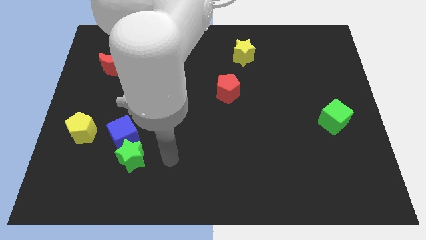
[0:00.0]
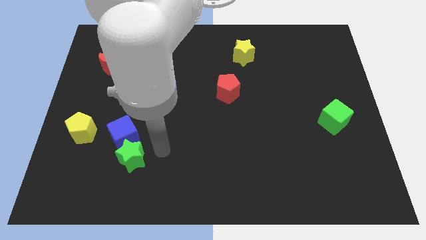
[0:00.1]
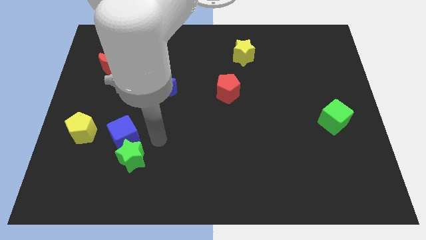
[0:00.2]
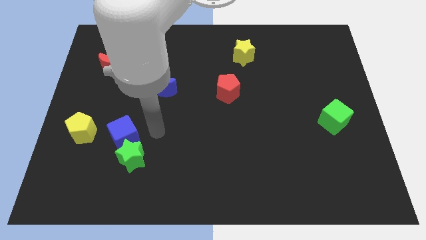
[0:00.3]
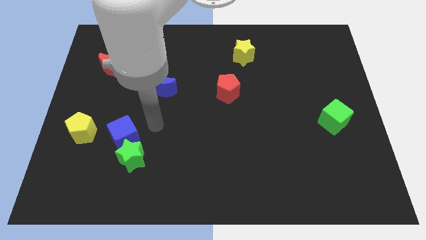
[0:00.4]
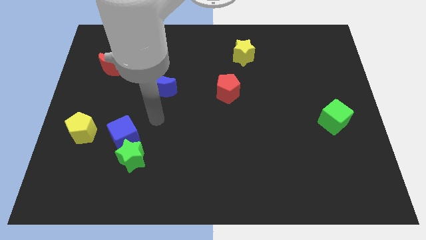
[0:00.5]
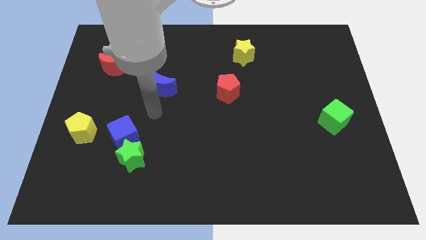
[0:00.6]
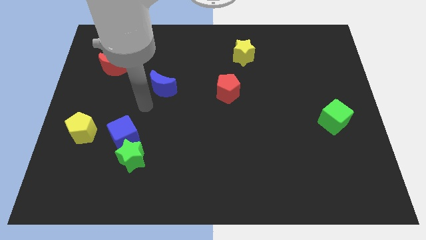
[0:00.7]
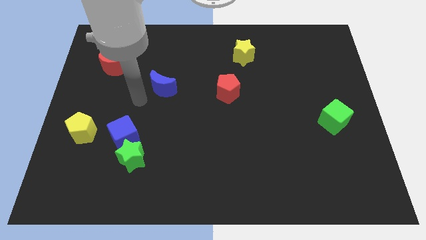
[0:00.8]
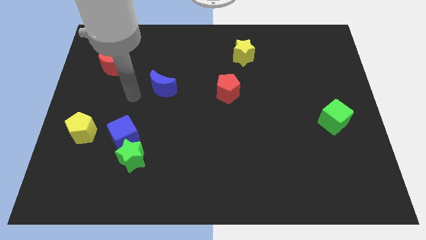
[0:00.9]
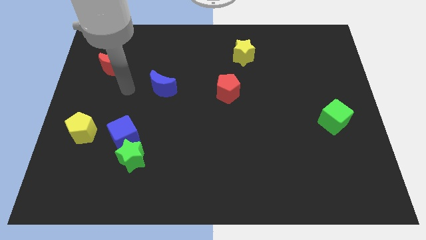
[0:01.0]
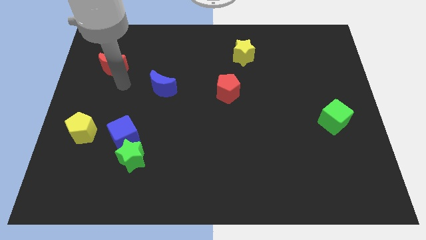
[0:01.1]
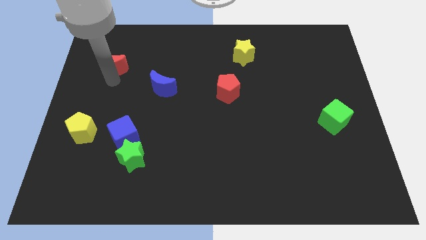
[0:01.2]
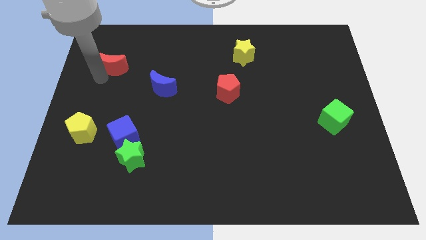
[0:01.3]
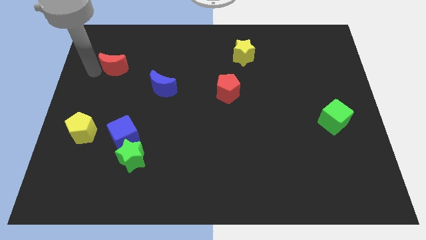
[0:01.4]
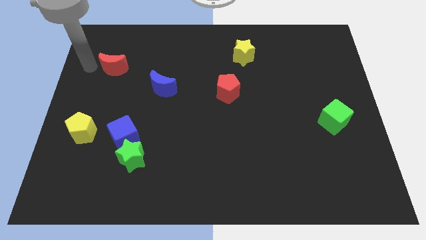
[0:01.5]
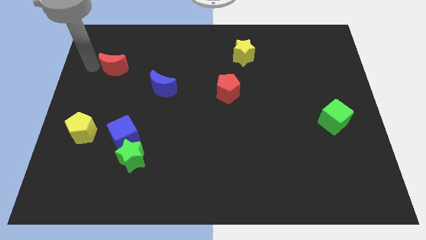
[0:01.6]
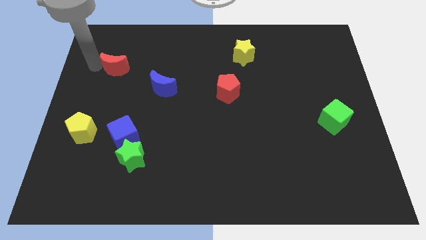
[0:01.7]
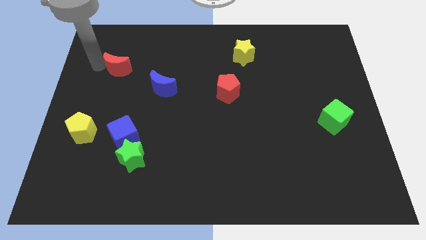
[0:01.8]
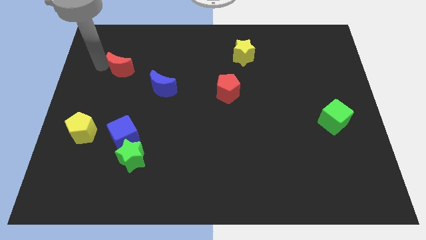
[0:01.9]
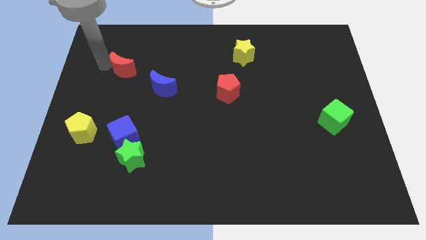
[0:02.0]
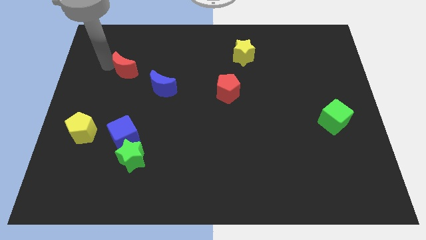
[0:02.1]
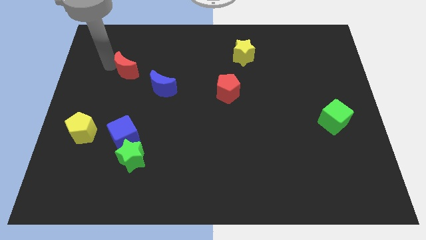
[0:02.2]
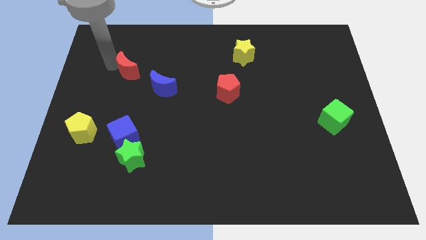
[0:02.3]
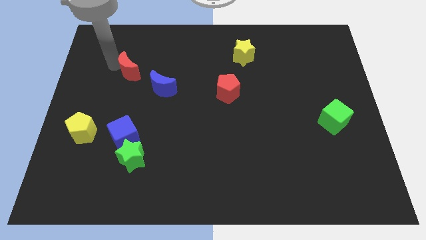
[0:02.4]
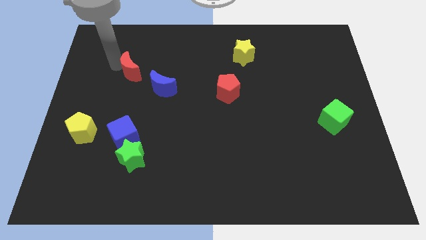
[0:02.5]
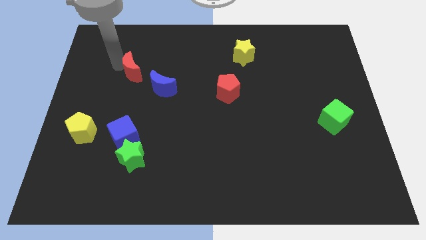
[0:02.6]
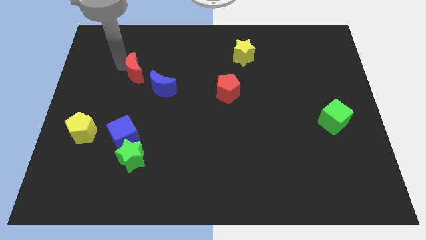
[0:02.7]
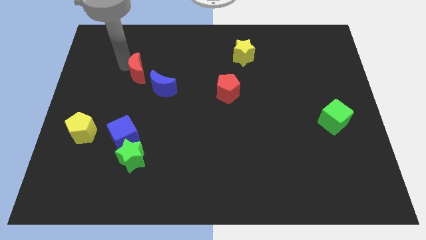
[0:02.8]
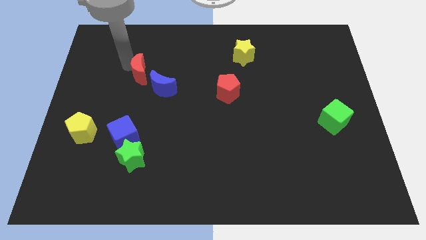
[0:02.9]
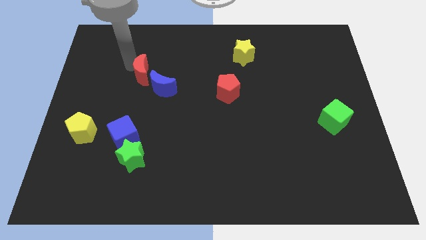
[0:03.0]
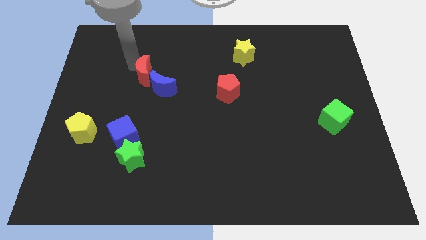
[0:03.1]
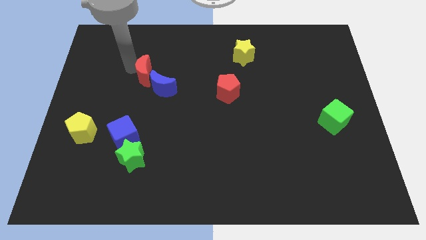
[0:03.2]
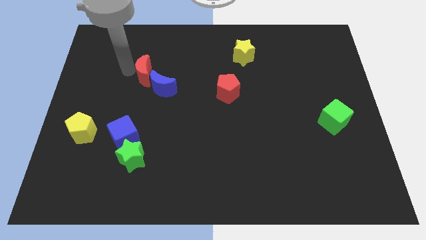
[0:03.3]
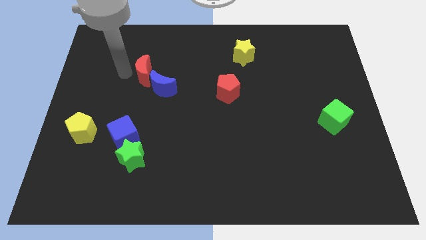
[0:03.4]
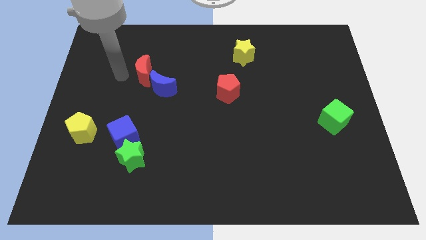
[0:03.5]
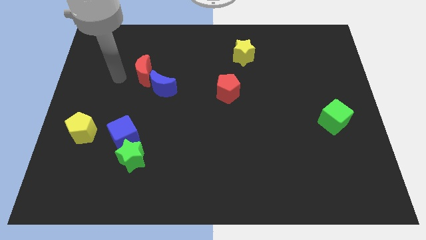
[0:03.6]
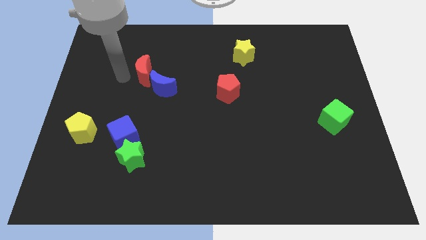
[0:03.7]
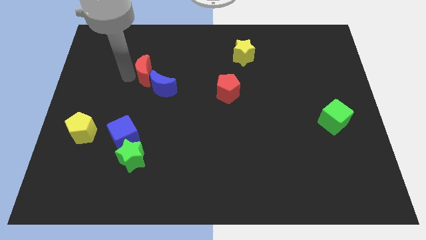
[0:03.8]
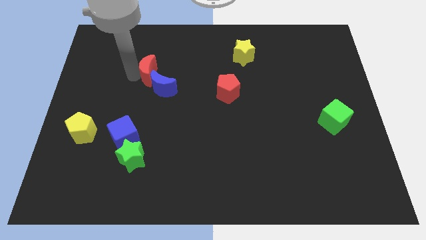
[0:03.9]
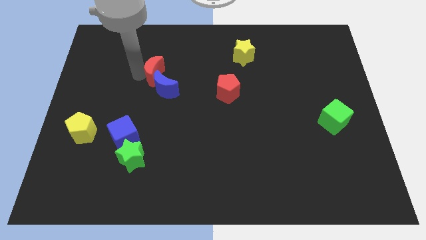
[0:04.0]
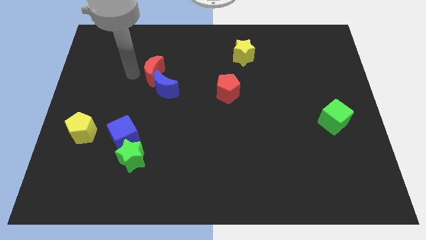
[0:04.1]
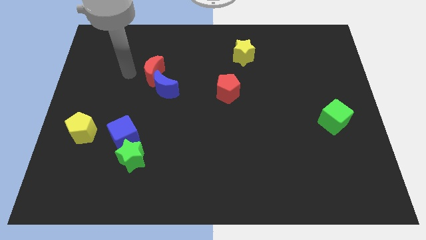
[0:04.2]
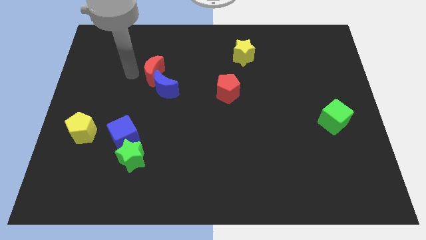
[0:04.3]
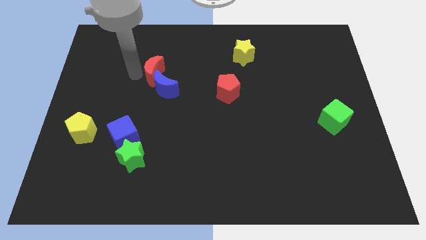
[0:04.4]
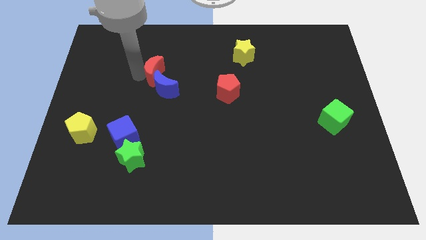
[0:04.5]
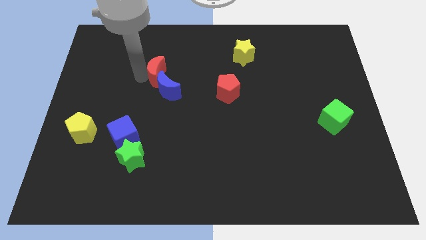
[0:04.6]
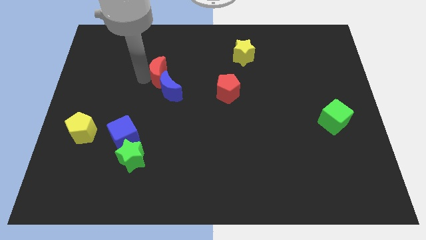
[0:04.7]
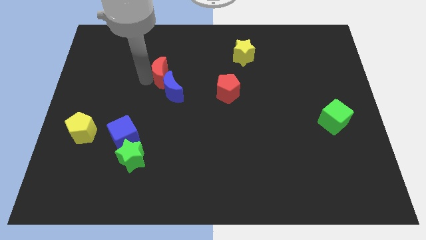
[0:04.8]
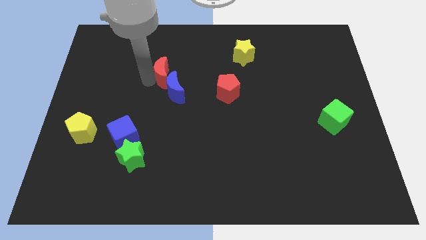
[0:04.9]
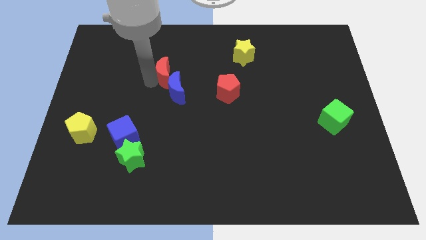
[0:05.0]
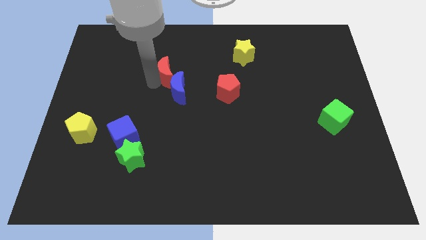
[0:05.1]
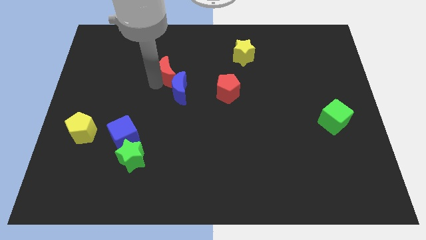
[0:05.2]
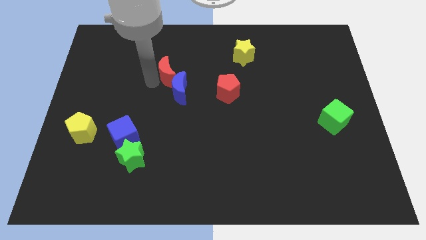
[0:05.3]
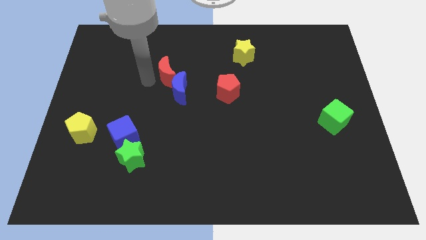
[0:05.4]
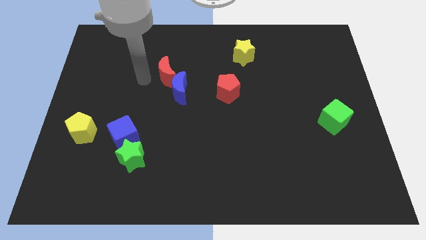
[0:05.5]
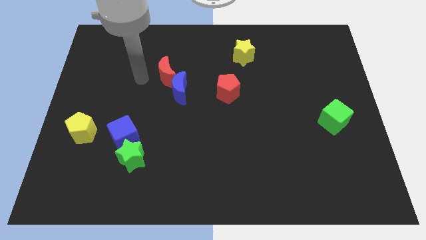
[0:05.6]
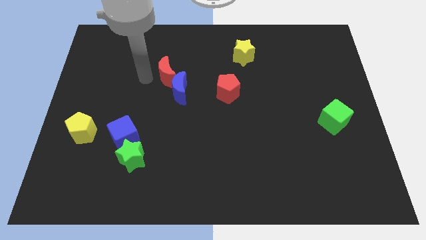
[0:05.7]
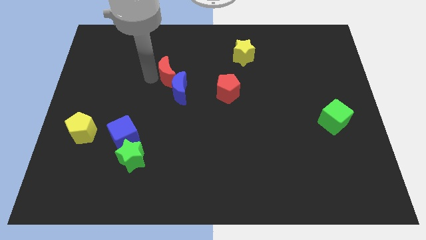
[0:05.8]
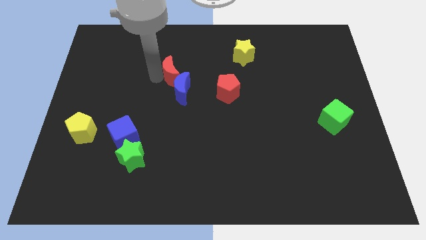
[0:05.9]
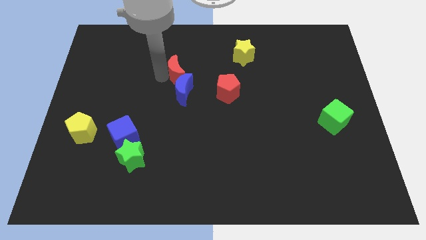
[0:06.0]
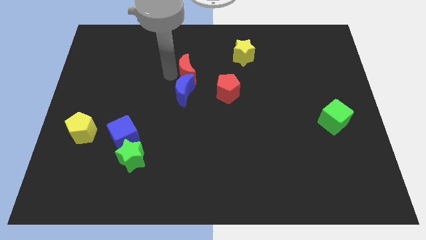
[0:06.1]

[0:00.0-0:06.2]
push the red moon diagonally up and to the left of the red pentagon
